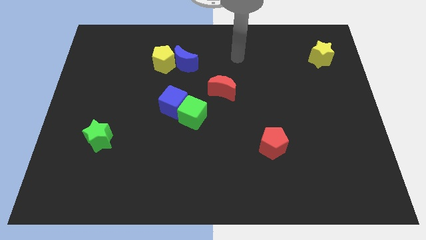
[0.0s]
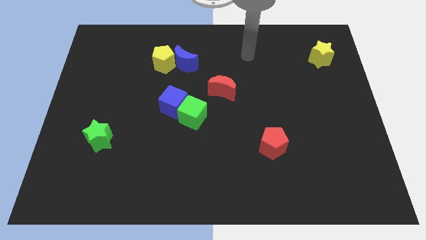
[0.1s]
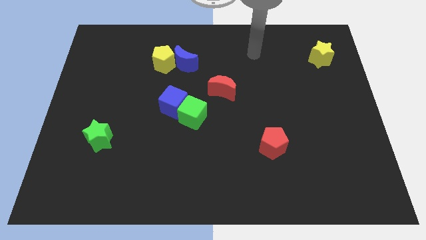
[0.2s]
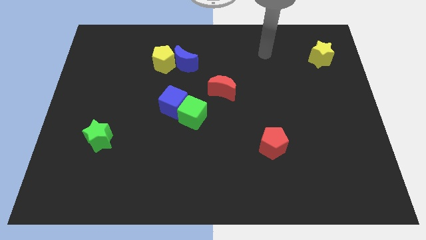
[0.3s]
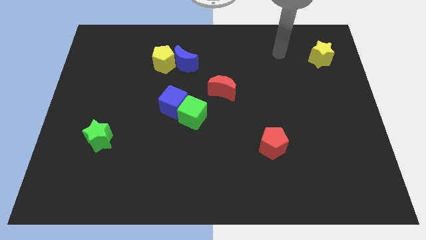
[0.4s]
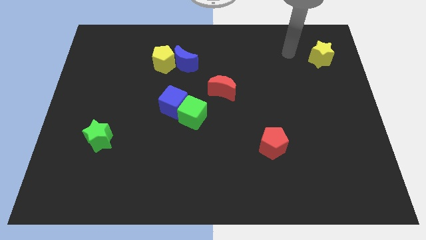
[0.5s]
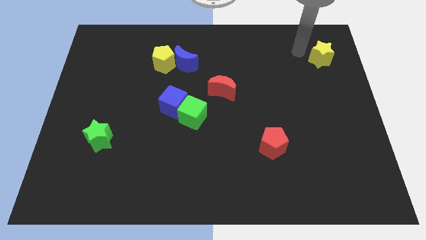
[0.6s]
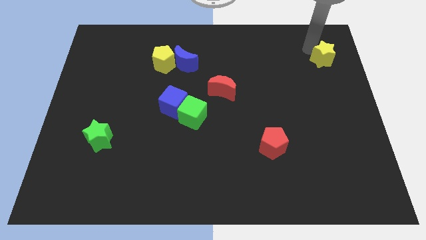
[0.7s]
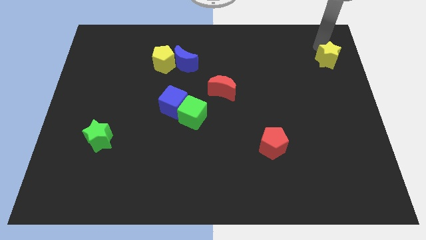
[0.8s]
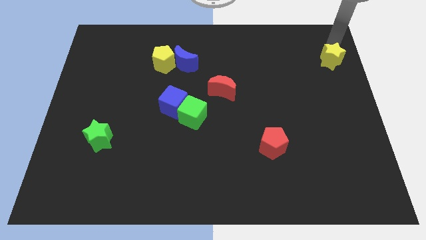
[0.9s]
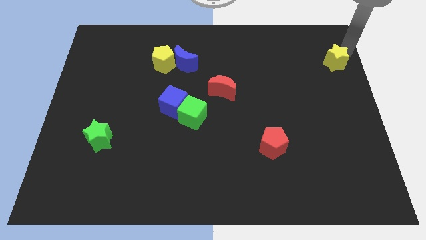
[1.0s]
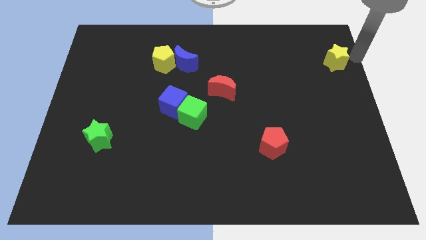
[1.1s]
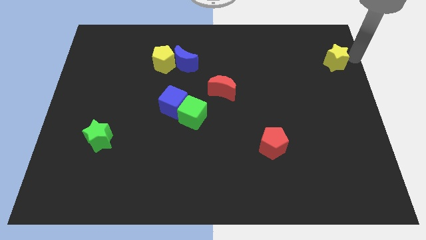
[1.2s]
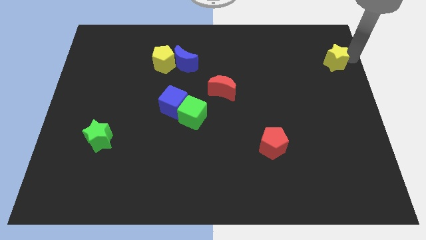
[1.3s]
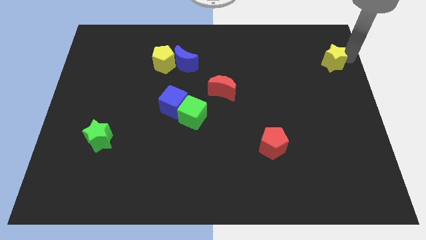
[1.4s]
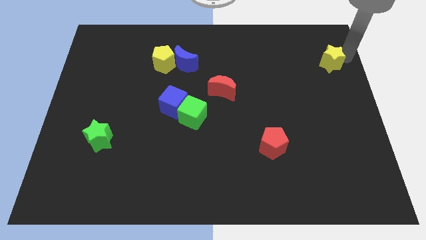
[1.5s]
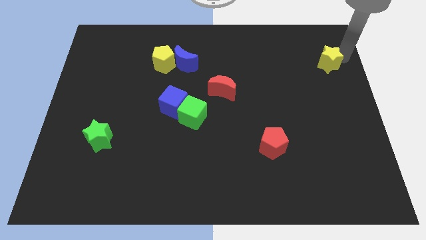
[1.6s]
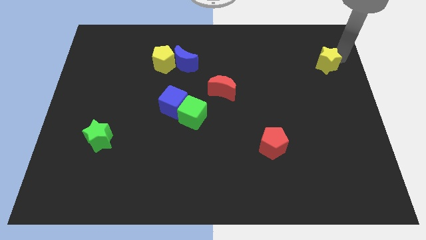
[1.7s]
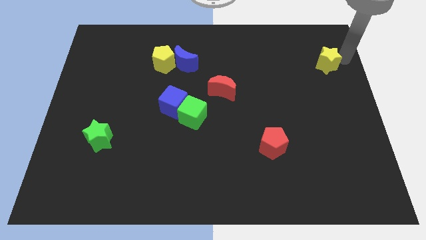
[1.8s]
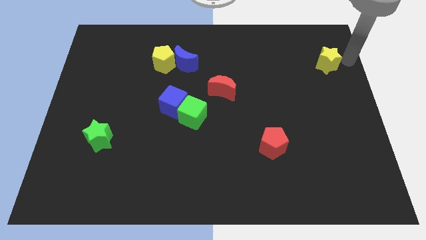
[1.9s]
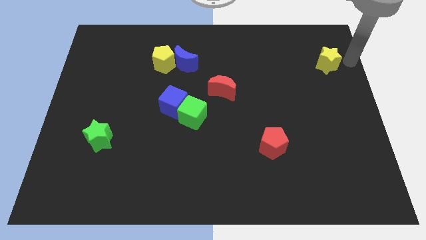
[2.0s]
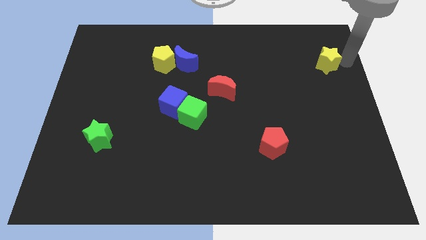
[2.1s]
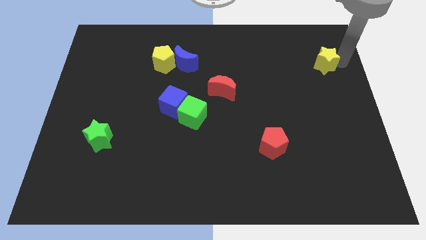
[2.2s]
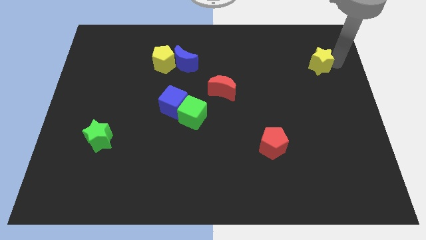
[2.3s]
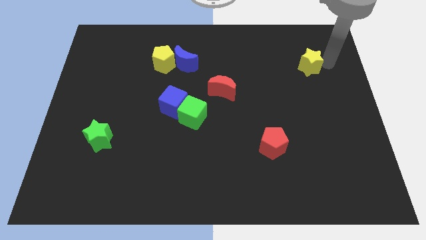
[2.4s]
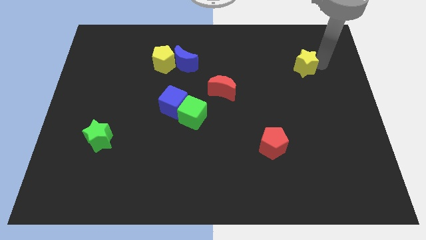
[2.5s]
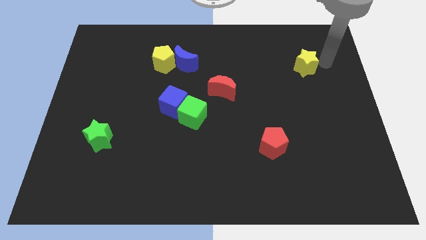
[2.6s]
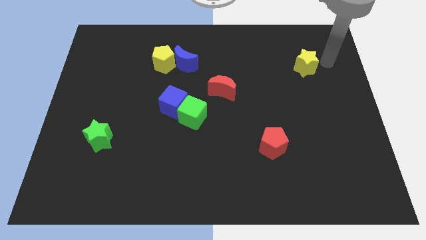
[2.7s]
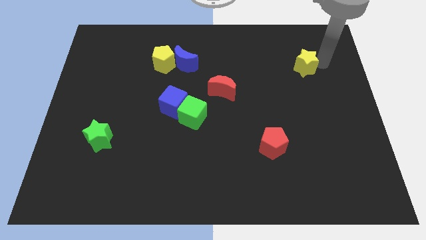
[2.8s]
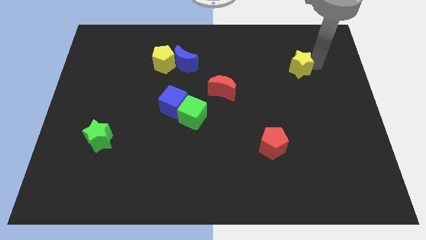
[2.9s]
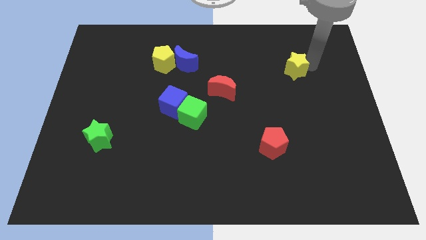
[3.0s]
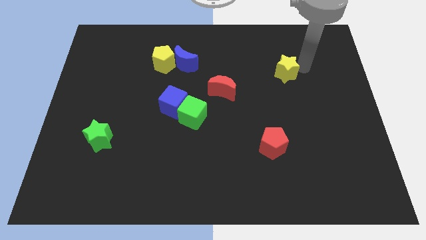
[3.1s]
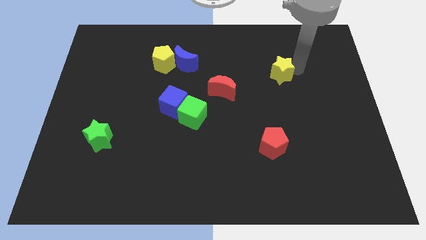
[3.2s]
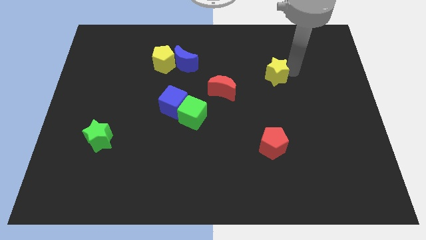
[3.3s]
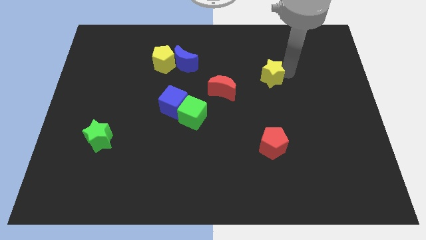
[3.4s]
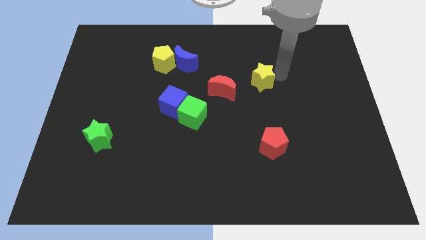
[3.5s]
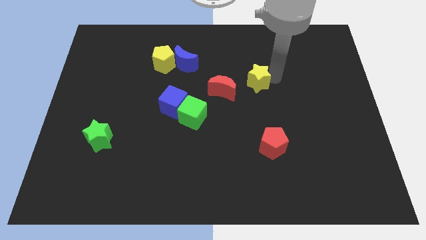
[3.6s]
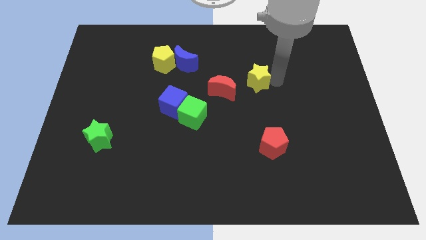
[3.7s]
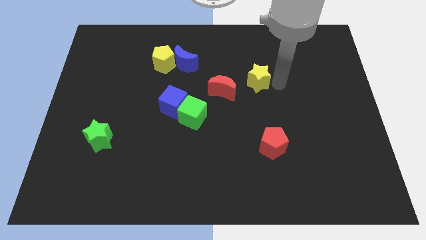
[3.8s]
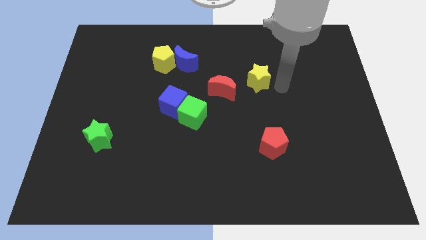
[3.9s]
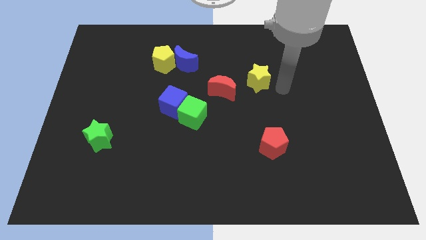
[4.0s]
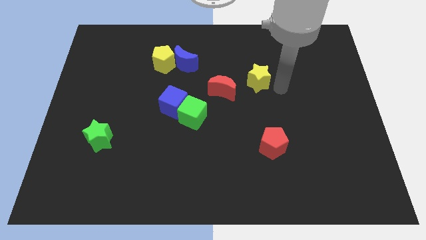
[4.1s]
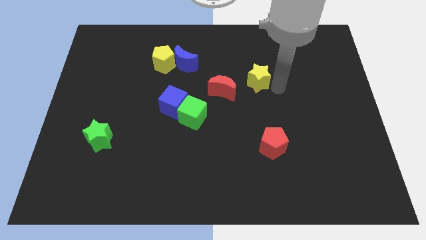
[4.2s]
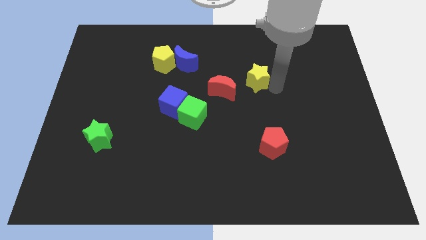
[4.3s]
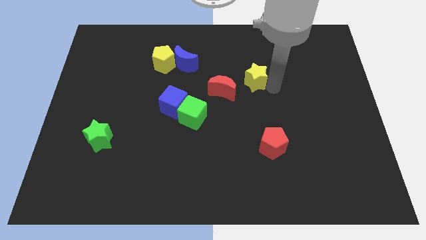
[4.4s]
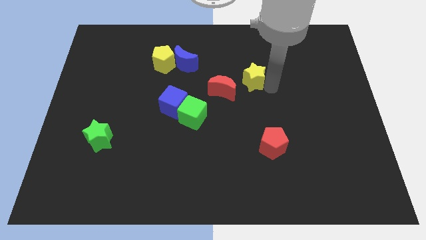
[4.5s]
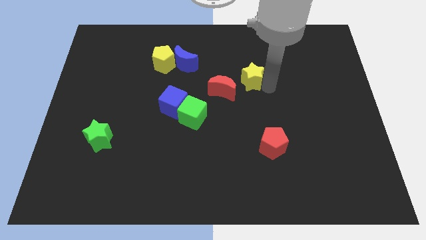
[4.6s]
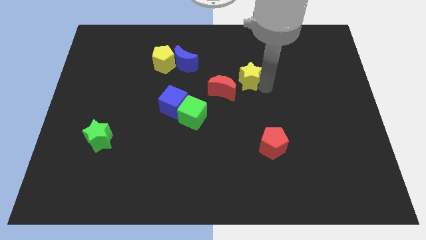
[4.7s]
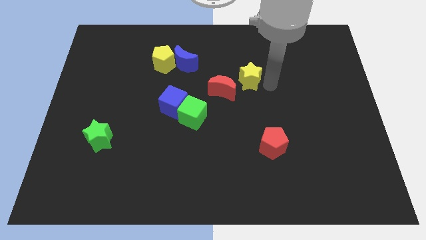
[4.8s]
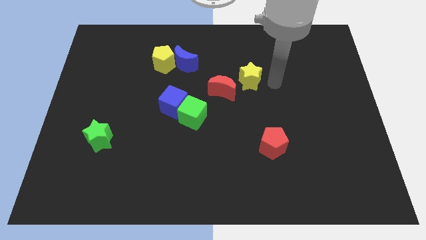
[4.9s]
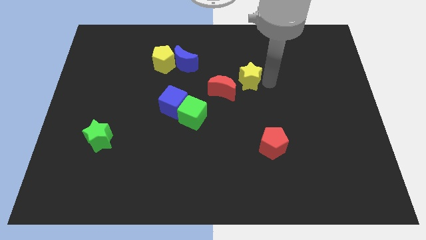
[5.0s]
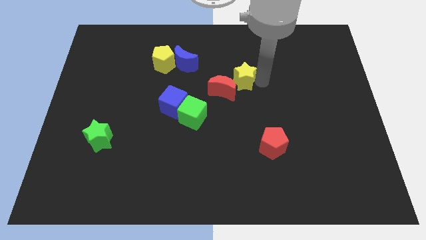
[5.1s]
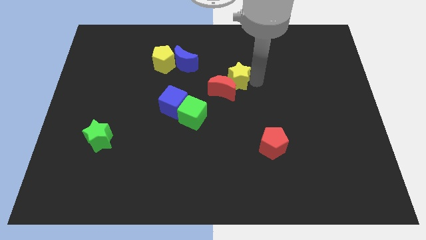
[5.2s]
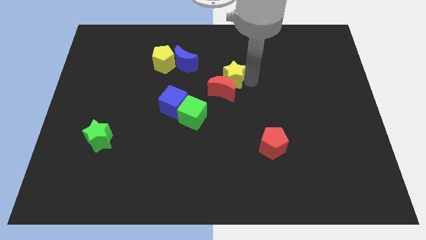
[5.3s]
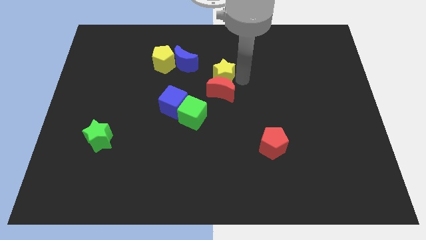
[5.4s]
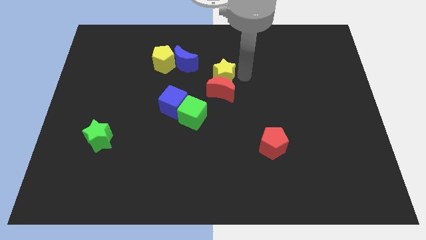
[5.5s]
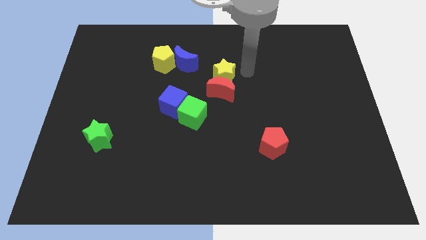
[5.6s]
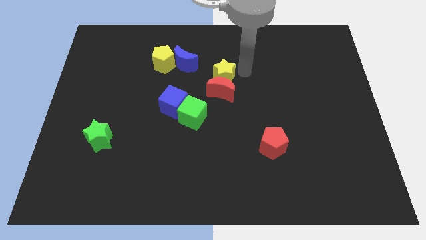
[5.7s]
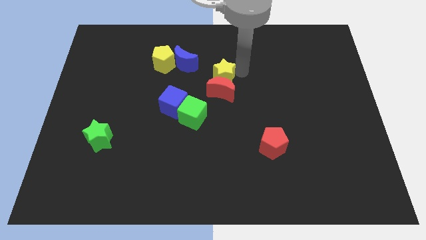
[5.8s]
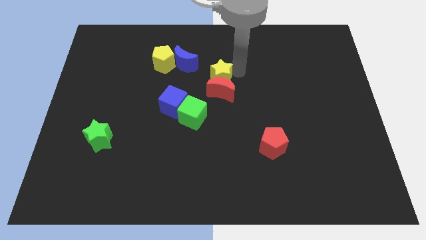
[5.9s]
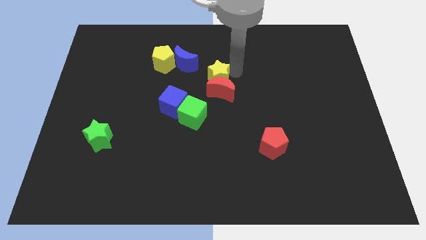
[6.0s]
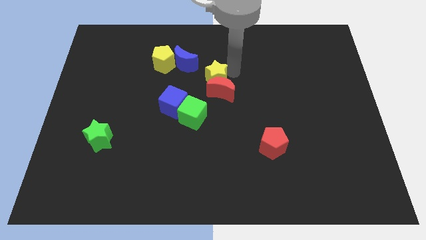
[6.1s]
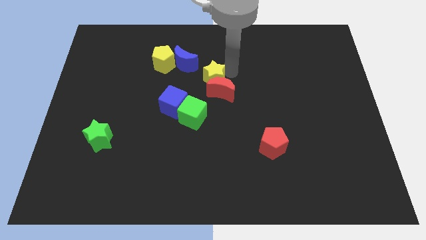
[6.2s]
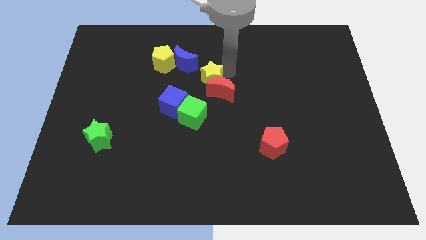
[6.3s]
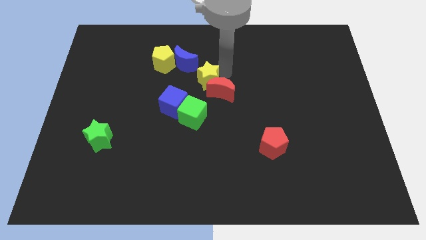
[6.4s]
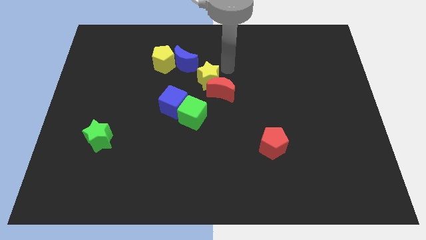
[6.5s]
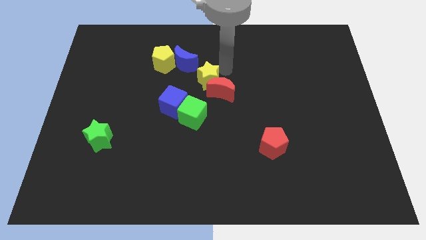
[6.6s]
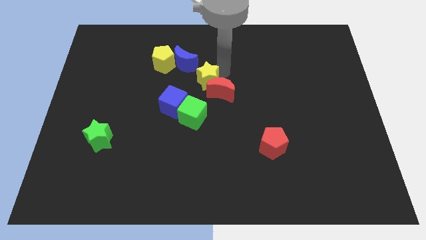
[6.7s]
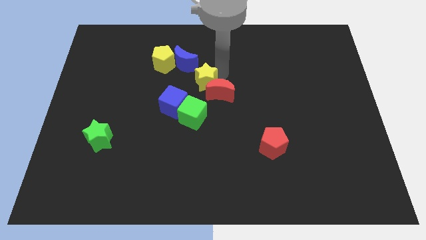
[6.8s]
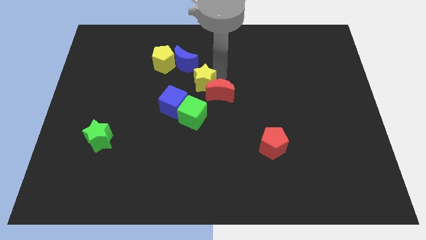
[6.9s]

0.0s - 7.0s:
push the yellow star to the bottom side of the blue moon

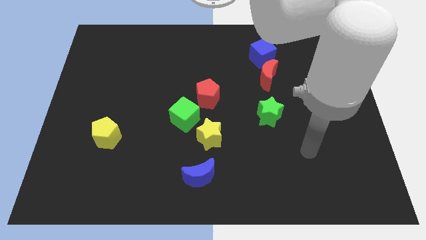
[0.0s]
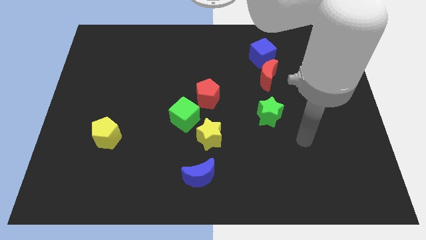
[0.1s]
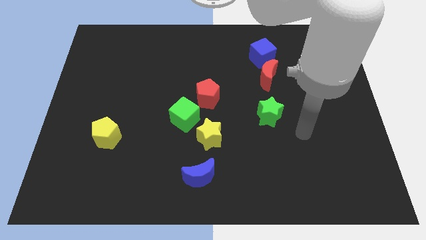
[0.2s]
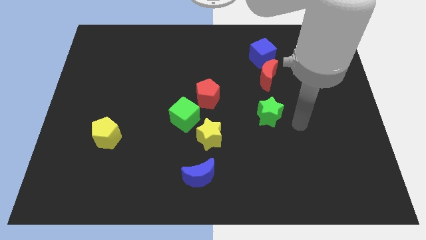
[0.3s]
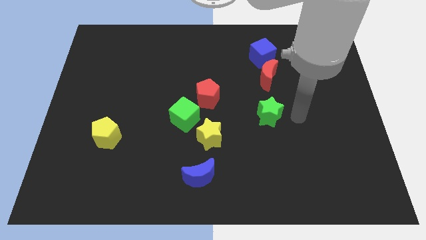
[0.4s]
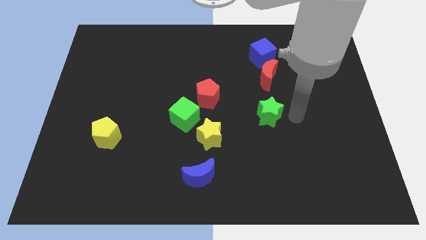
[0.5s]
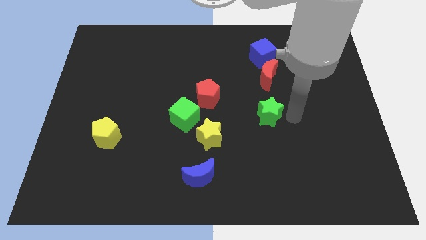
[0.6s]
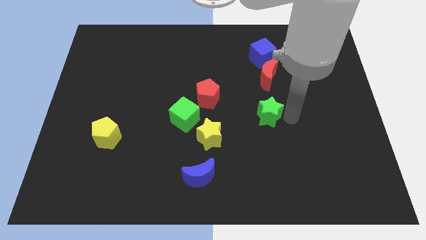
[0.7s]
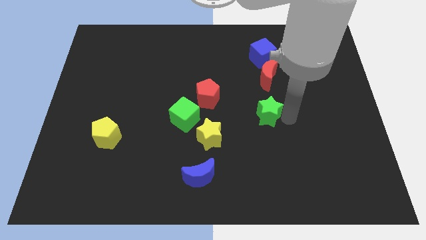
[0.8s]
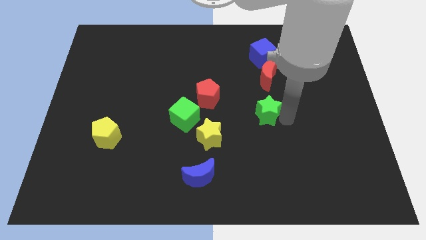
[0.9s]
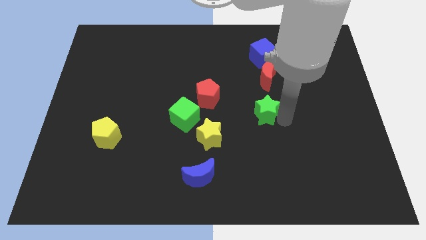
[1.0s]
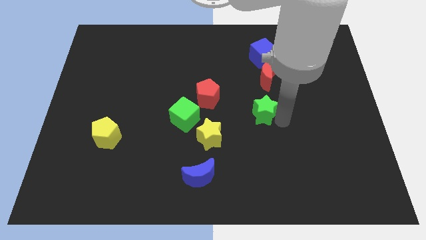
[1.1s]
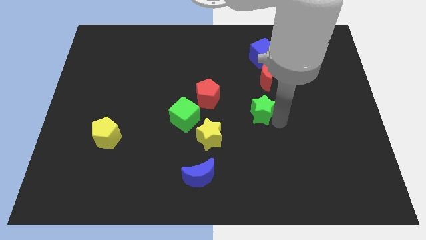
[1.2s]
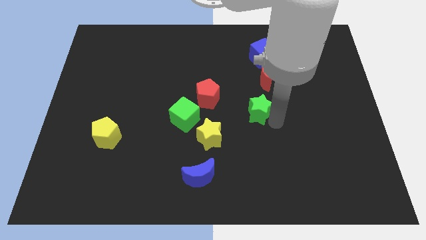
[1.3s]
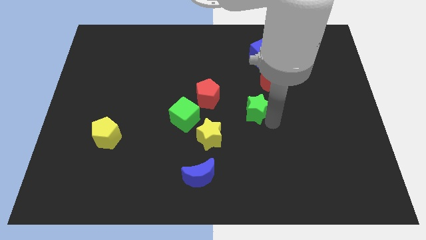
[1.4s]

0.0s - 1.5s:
push the green star to the top right of the yellow star
